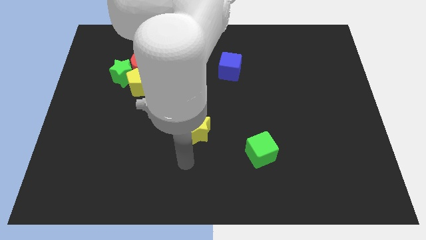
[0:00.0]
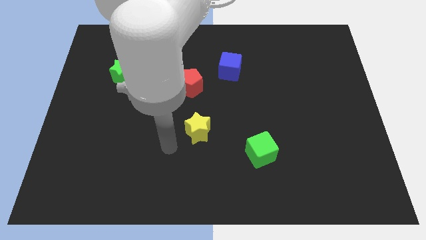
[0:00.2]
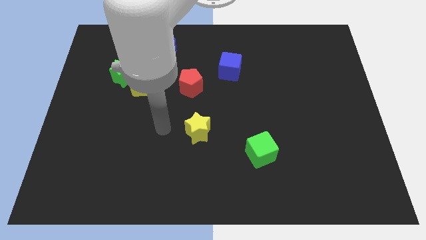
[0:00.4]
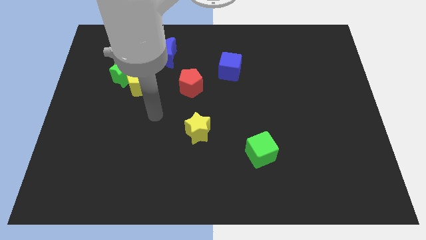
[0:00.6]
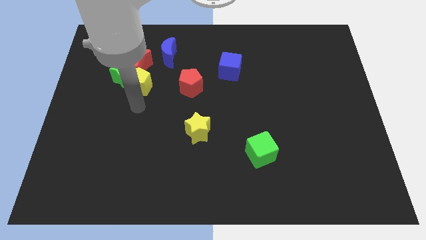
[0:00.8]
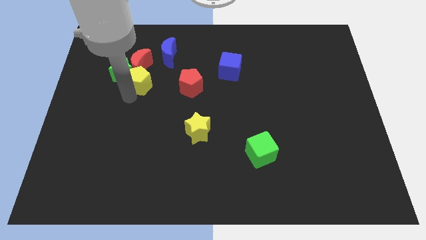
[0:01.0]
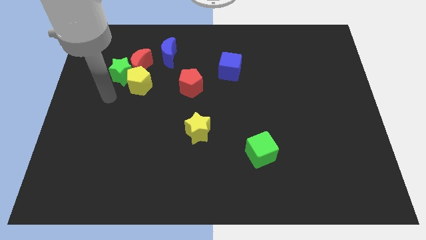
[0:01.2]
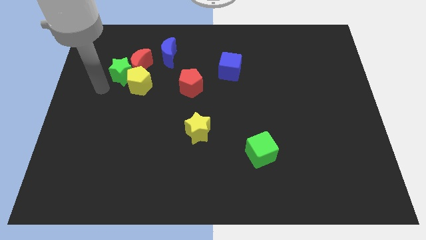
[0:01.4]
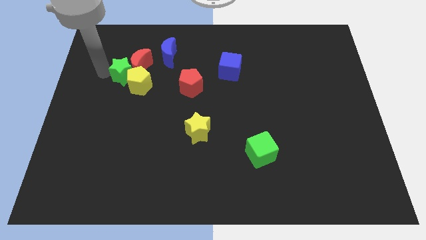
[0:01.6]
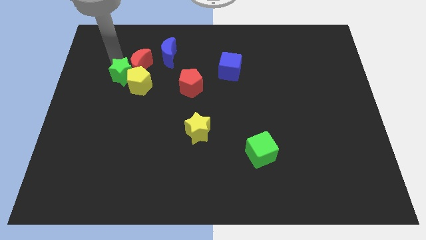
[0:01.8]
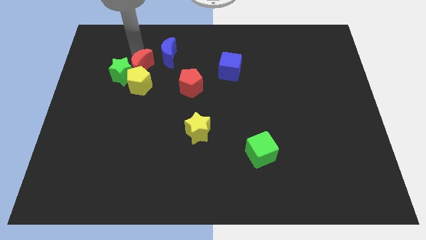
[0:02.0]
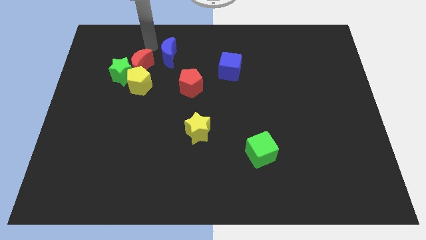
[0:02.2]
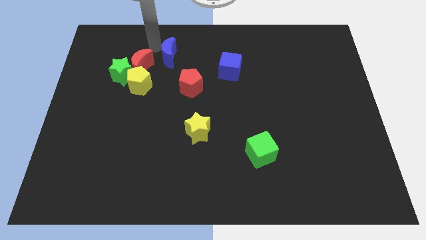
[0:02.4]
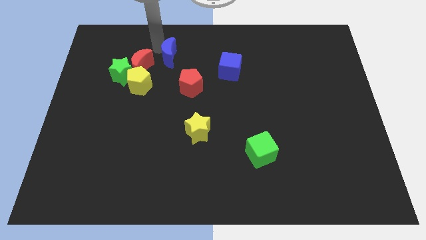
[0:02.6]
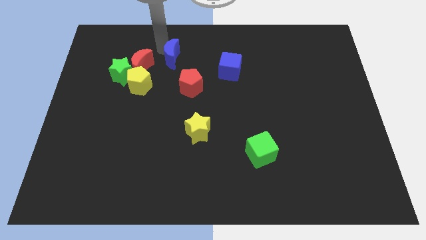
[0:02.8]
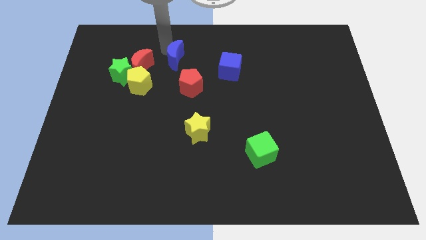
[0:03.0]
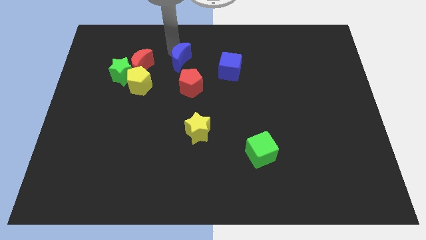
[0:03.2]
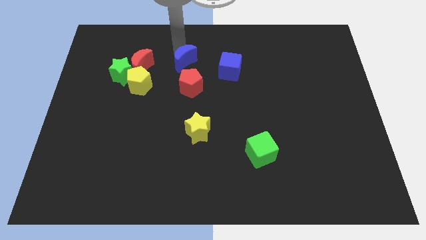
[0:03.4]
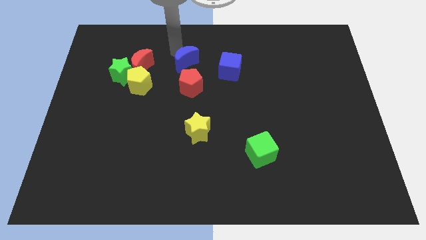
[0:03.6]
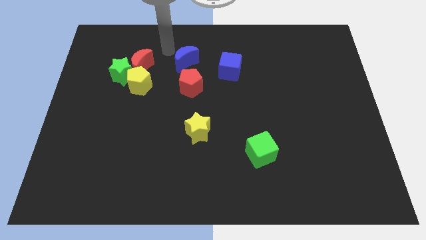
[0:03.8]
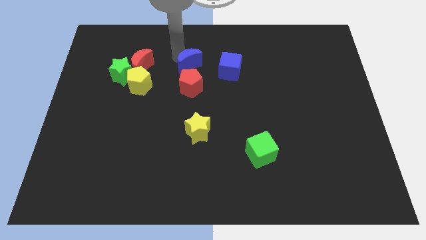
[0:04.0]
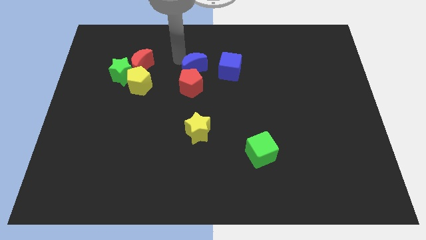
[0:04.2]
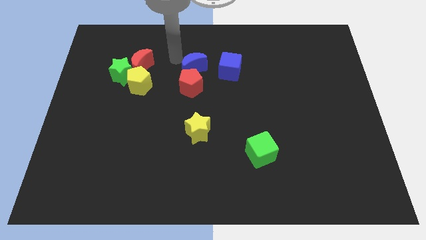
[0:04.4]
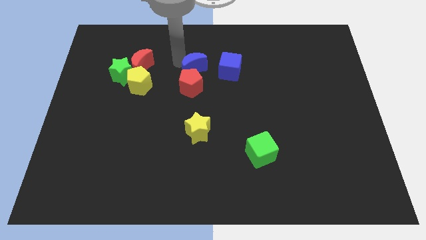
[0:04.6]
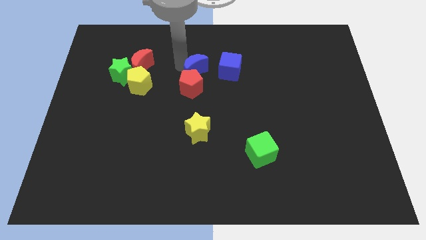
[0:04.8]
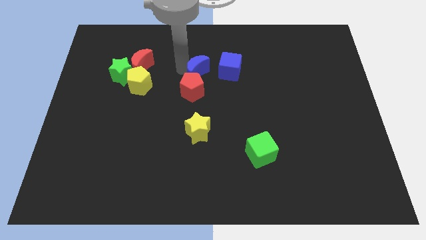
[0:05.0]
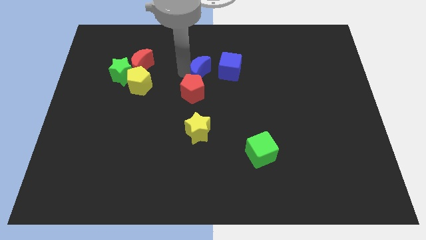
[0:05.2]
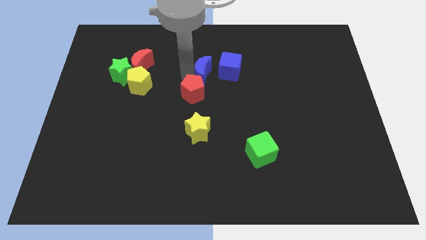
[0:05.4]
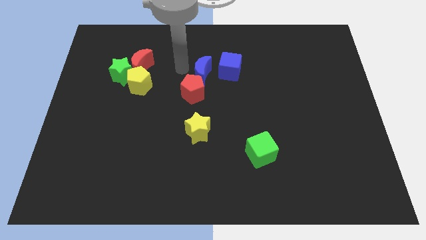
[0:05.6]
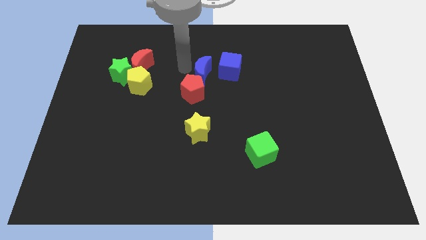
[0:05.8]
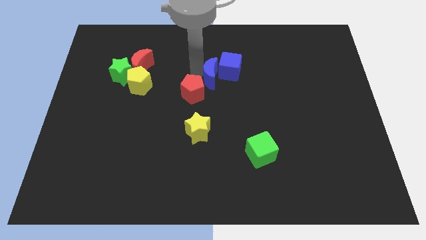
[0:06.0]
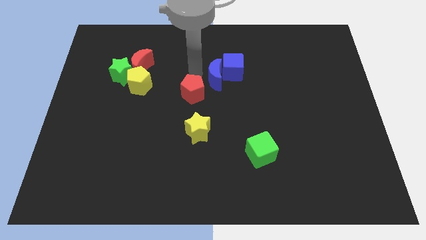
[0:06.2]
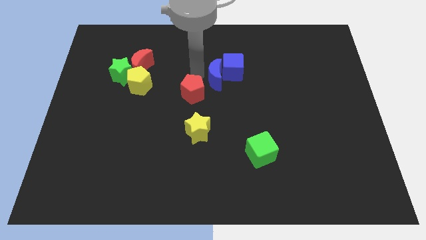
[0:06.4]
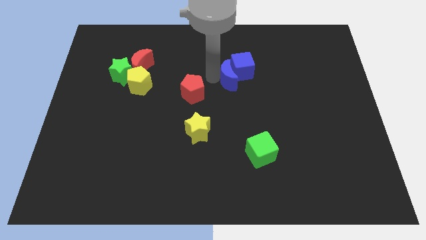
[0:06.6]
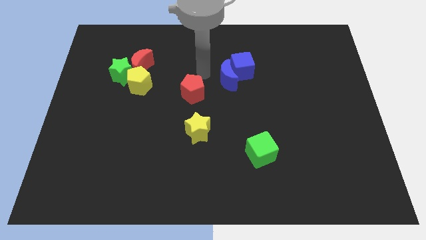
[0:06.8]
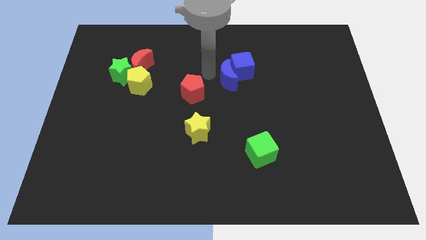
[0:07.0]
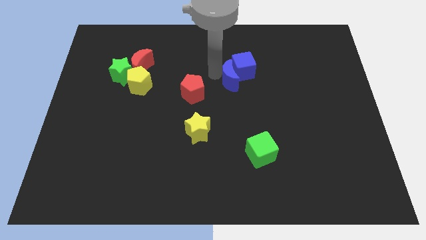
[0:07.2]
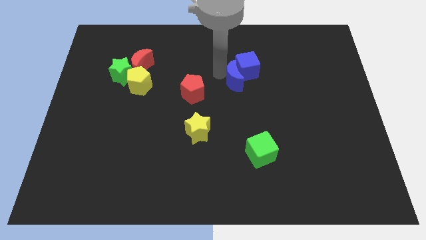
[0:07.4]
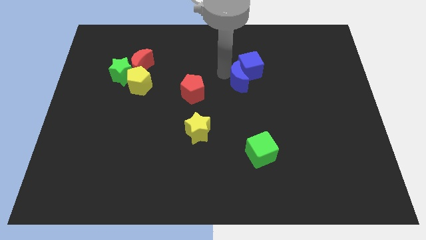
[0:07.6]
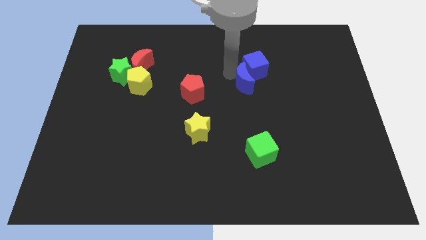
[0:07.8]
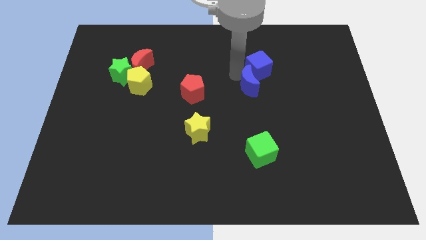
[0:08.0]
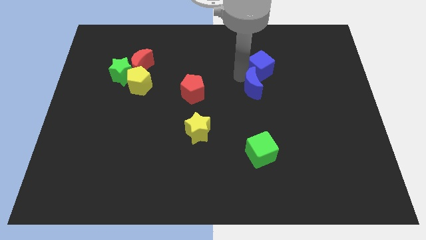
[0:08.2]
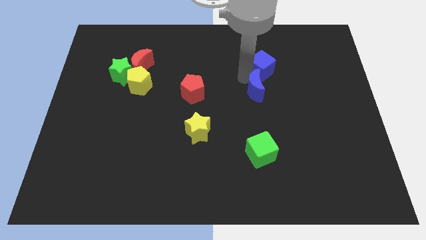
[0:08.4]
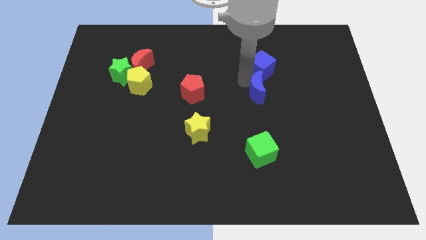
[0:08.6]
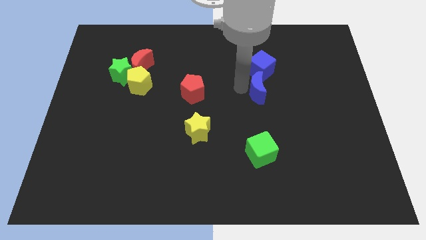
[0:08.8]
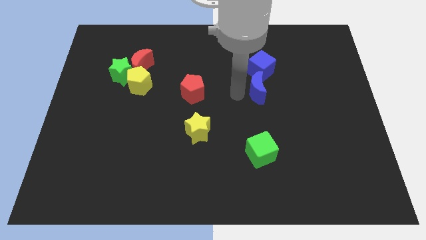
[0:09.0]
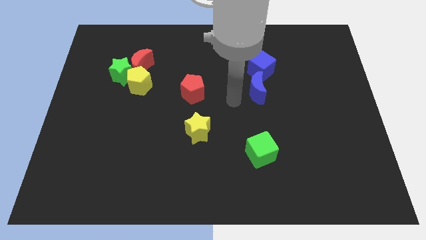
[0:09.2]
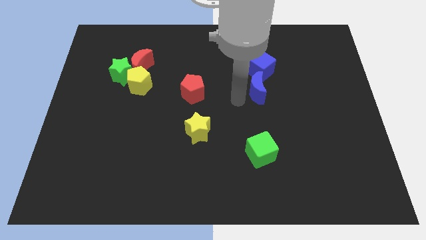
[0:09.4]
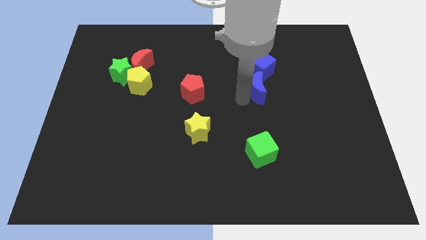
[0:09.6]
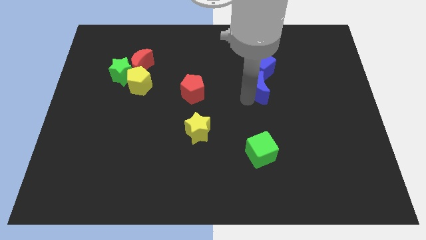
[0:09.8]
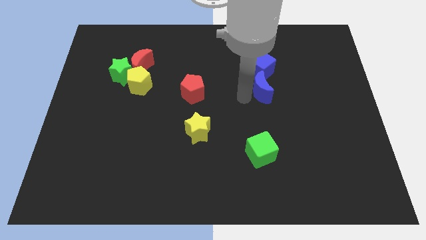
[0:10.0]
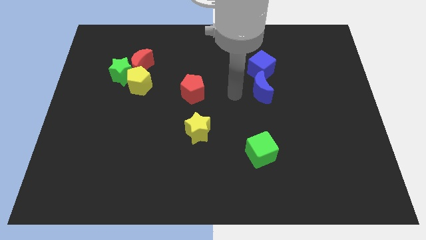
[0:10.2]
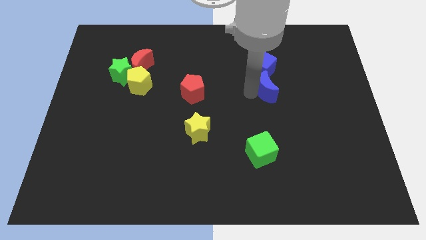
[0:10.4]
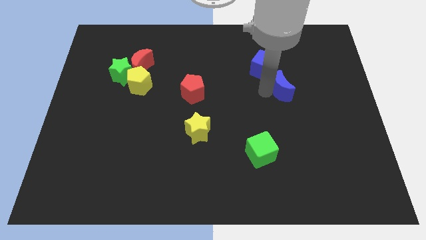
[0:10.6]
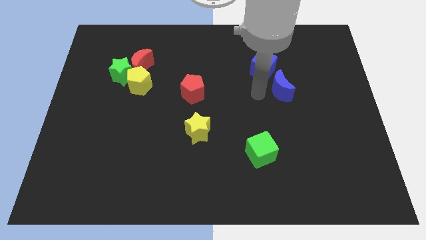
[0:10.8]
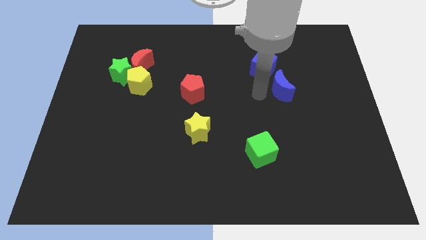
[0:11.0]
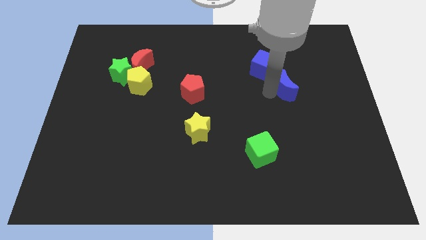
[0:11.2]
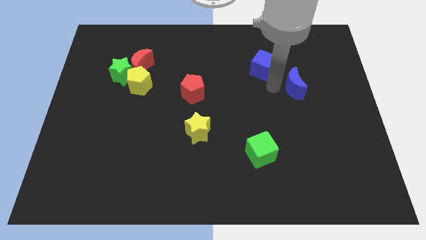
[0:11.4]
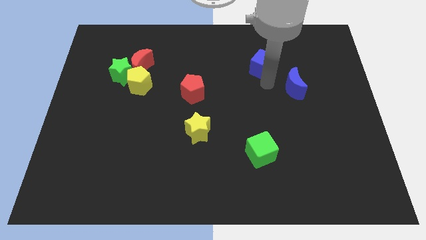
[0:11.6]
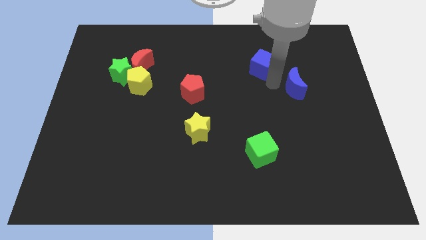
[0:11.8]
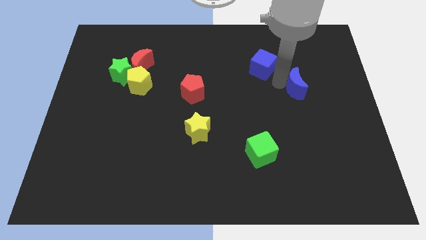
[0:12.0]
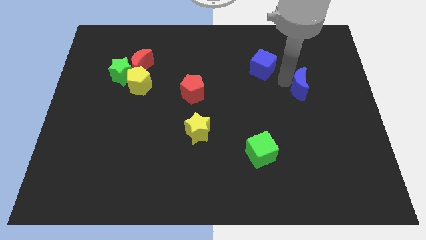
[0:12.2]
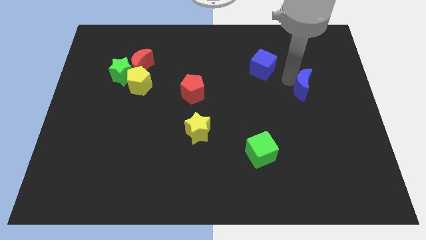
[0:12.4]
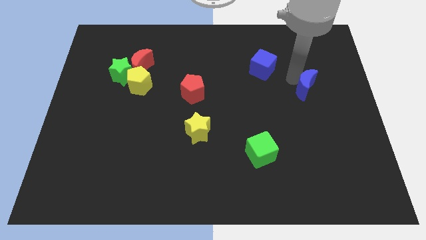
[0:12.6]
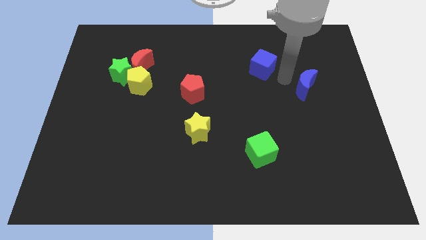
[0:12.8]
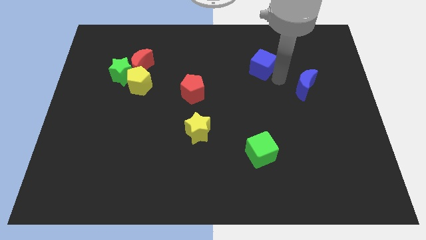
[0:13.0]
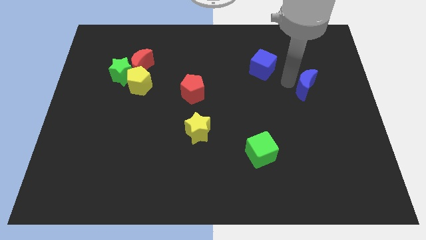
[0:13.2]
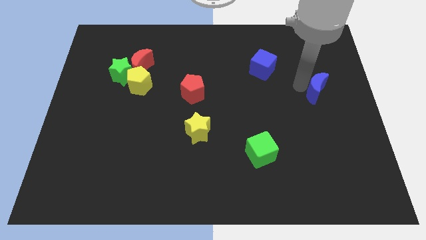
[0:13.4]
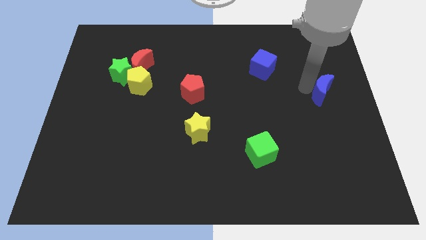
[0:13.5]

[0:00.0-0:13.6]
put the blue moon to the right side
